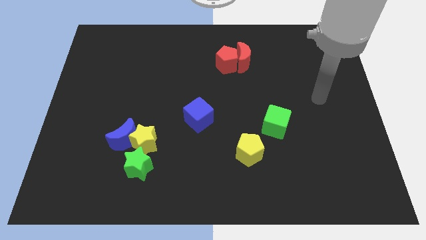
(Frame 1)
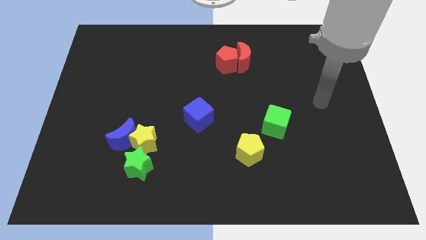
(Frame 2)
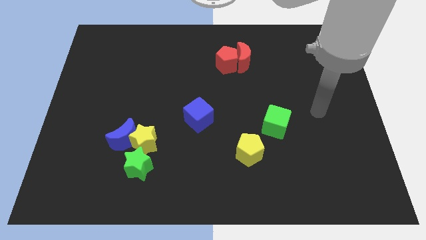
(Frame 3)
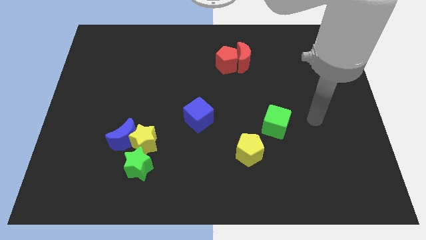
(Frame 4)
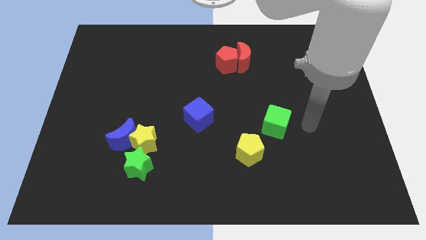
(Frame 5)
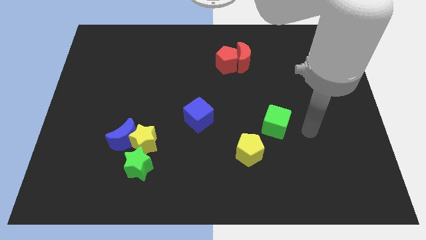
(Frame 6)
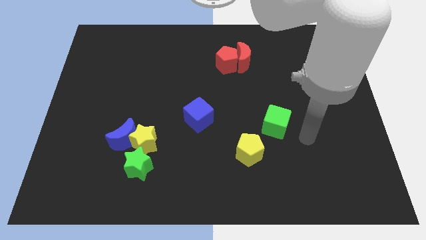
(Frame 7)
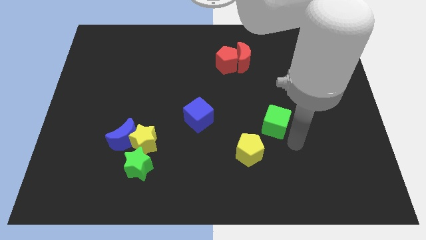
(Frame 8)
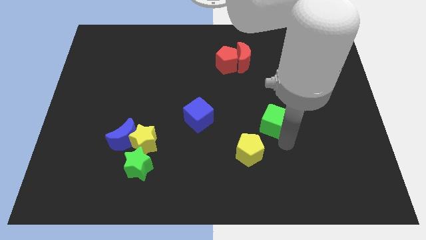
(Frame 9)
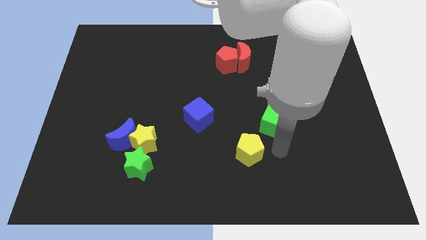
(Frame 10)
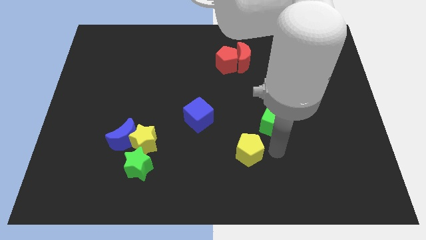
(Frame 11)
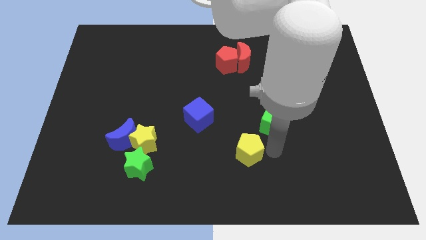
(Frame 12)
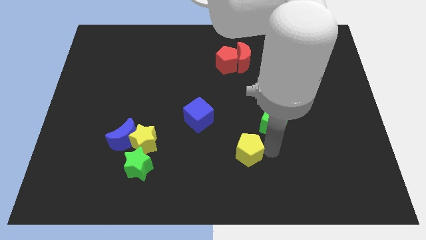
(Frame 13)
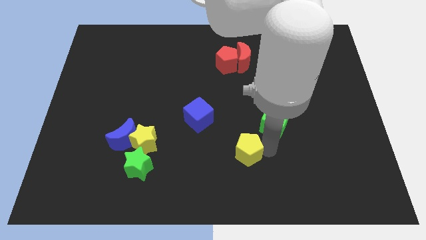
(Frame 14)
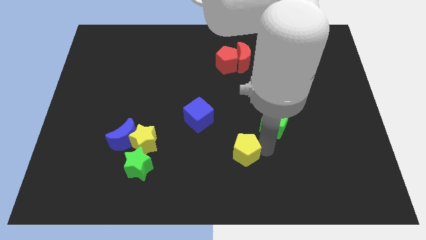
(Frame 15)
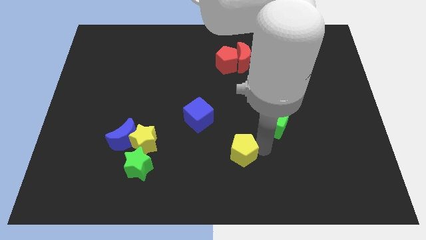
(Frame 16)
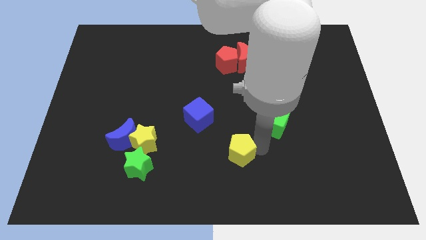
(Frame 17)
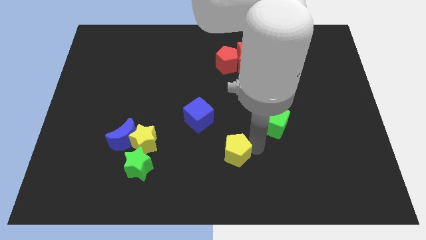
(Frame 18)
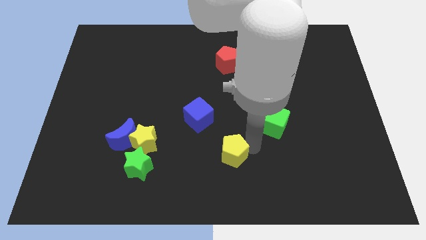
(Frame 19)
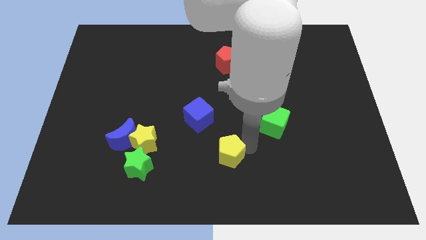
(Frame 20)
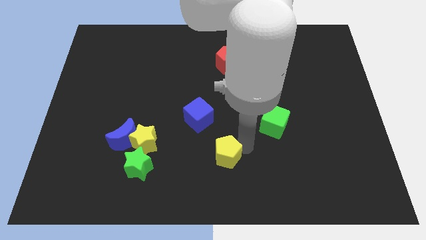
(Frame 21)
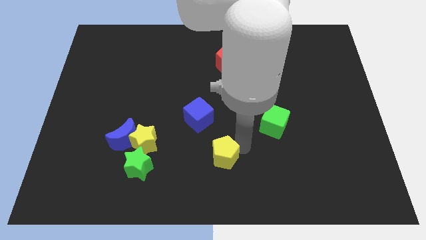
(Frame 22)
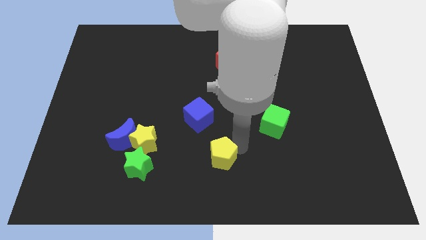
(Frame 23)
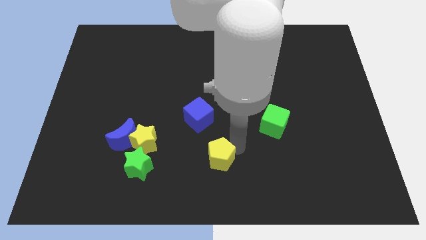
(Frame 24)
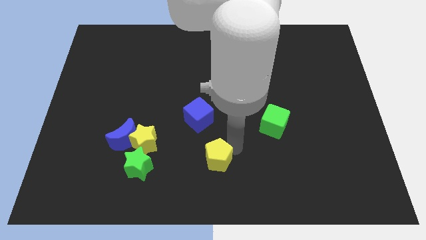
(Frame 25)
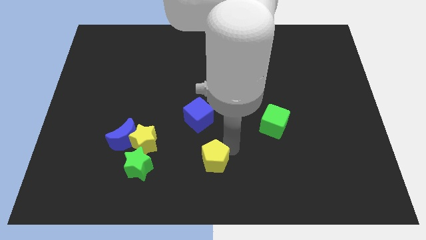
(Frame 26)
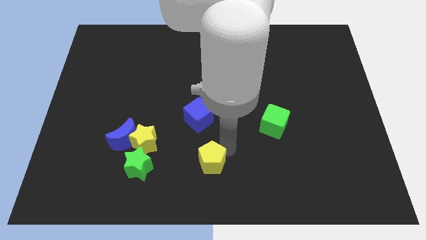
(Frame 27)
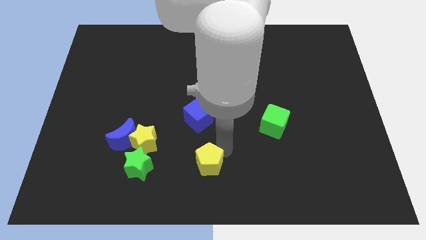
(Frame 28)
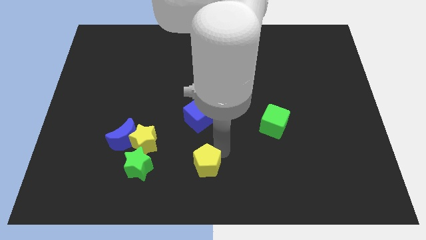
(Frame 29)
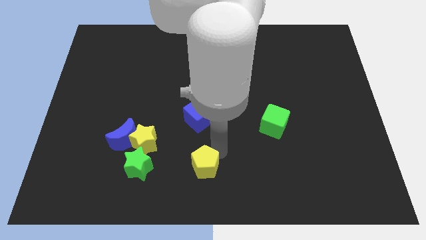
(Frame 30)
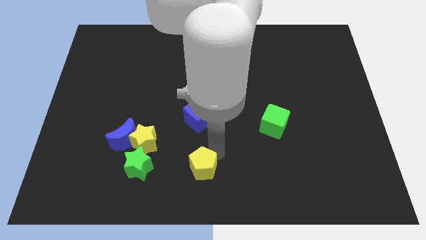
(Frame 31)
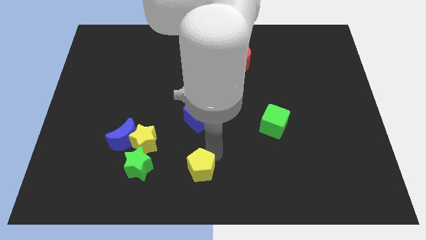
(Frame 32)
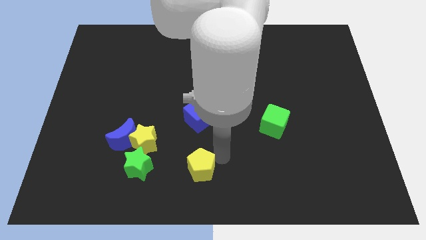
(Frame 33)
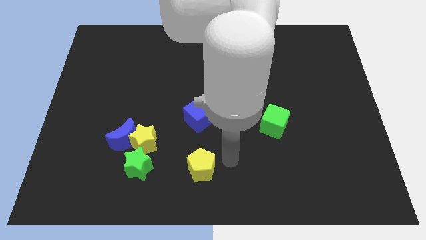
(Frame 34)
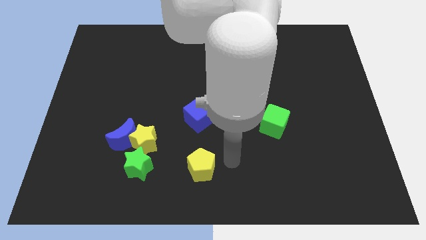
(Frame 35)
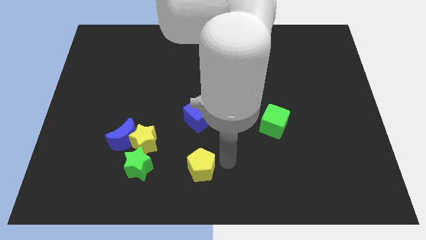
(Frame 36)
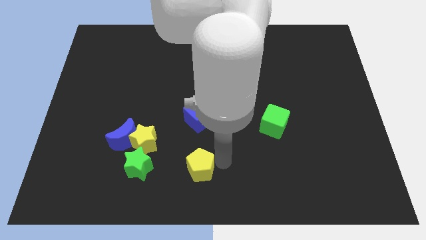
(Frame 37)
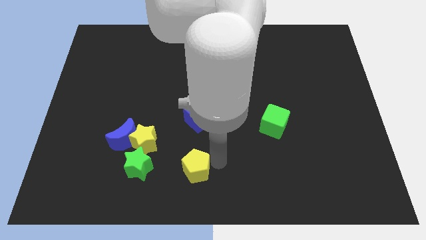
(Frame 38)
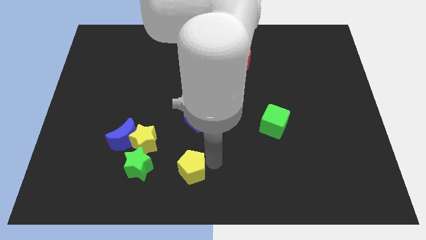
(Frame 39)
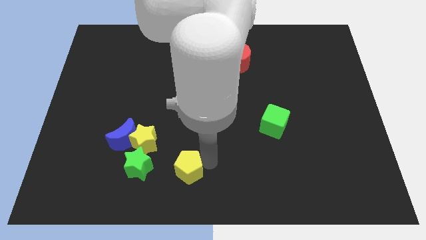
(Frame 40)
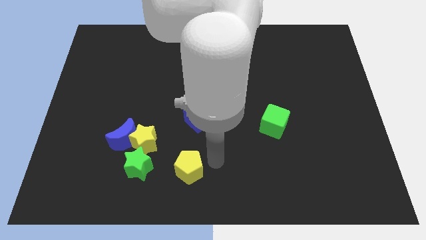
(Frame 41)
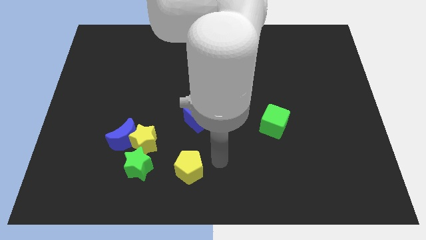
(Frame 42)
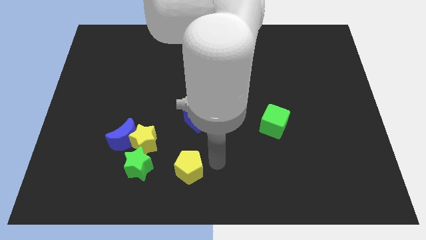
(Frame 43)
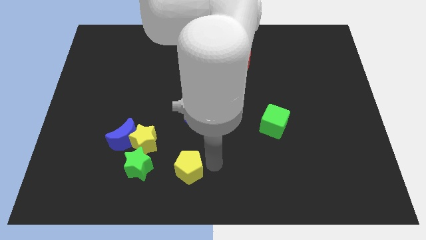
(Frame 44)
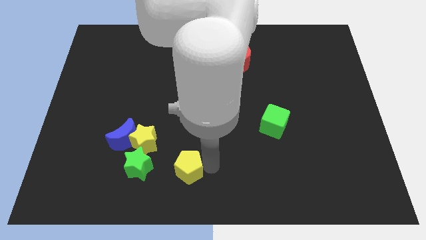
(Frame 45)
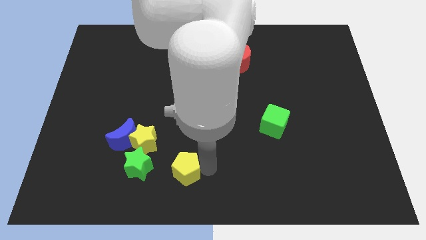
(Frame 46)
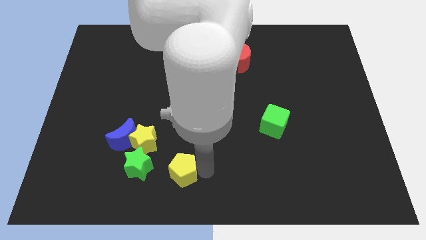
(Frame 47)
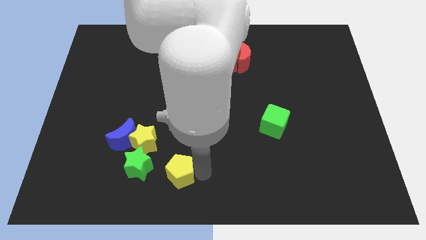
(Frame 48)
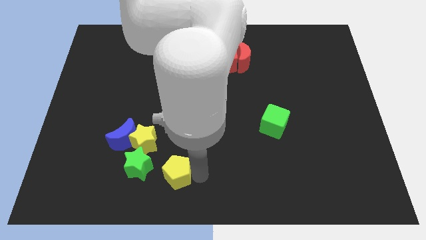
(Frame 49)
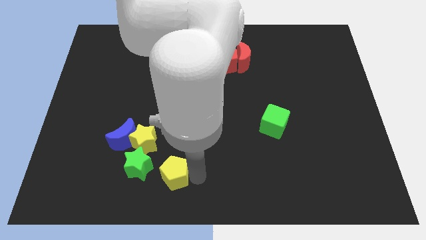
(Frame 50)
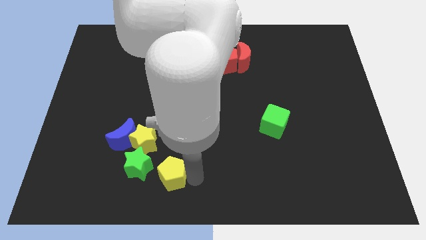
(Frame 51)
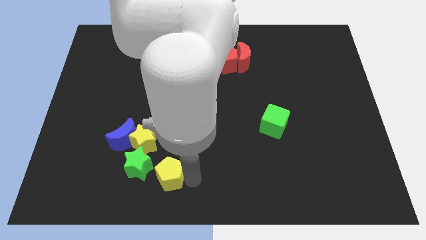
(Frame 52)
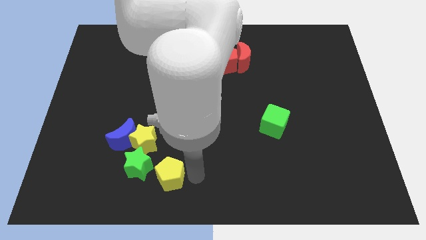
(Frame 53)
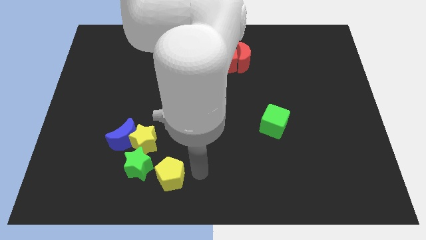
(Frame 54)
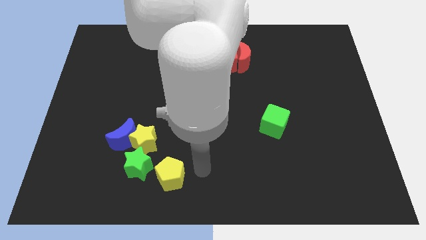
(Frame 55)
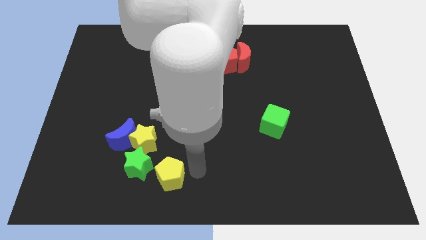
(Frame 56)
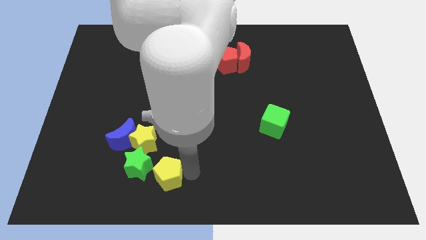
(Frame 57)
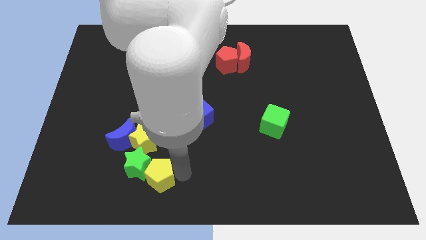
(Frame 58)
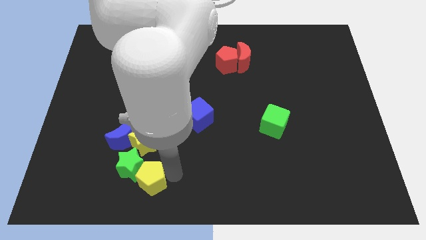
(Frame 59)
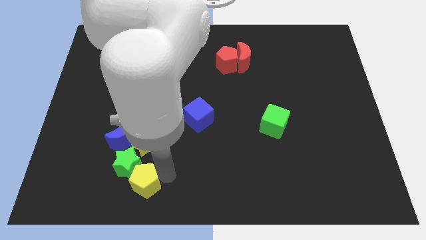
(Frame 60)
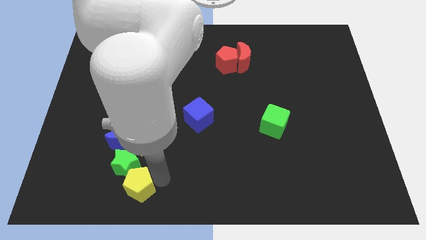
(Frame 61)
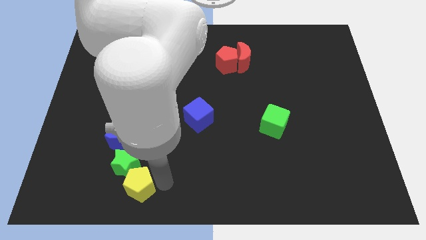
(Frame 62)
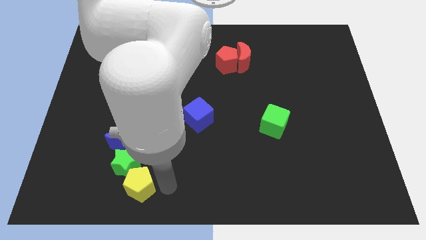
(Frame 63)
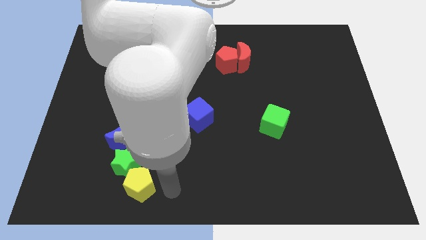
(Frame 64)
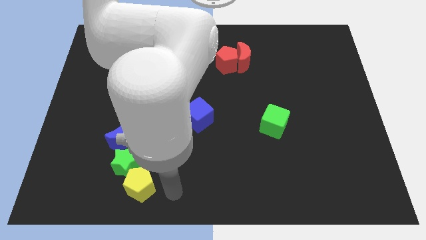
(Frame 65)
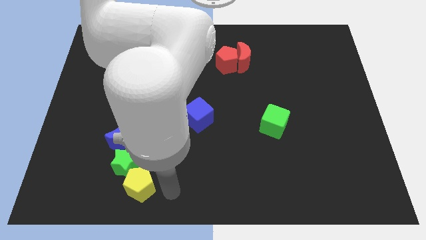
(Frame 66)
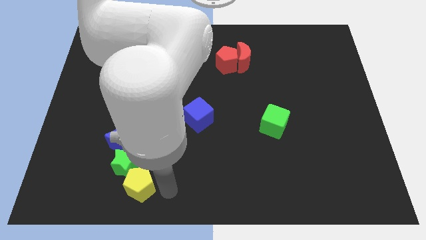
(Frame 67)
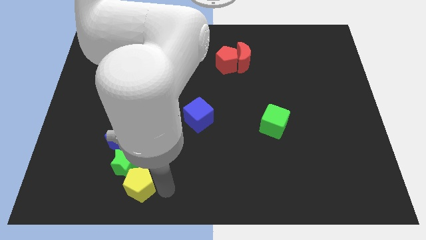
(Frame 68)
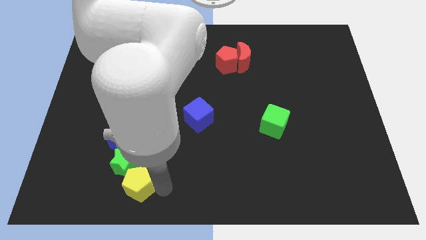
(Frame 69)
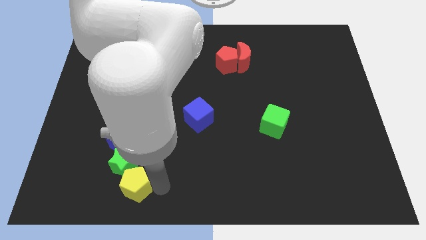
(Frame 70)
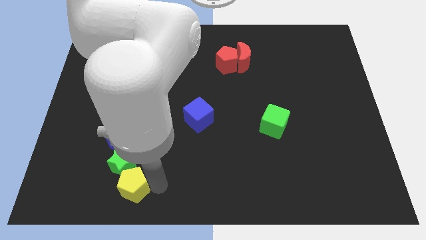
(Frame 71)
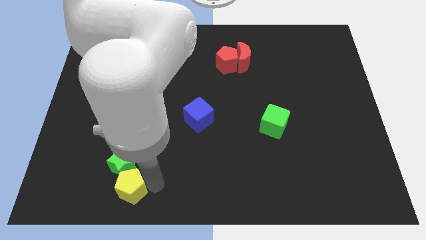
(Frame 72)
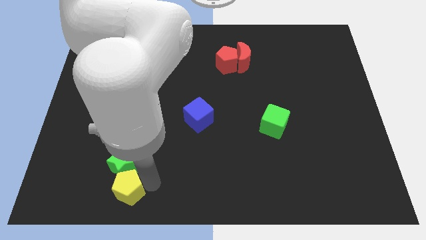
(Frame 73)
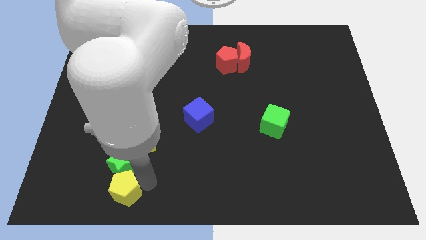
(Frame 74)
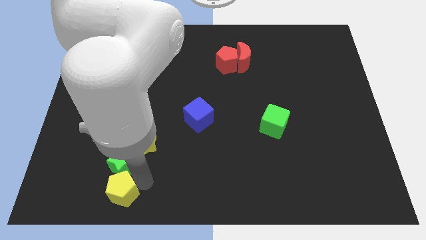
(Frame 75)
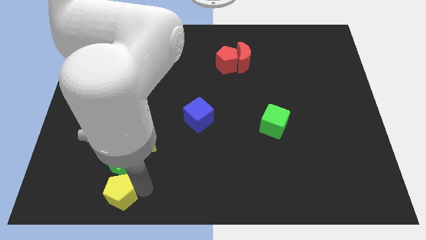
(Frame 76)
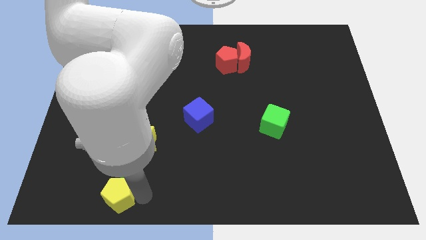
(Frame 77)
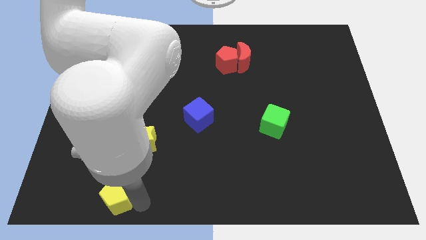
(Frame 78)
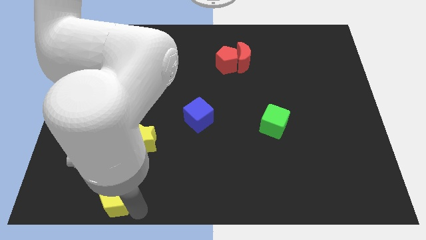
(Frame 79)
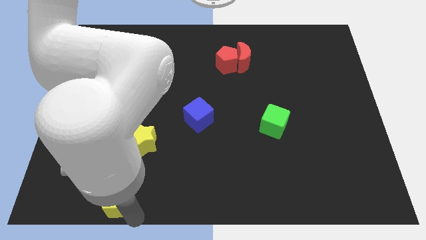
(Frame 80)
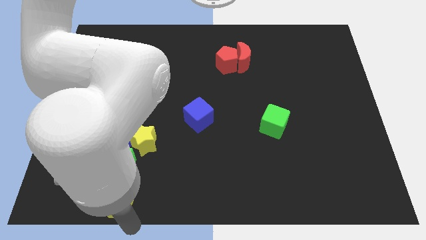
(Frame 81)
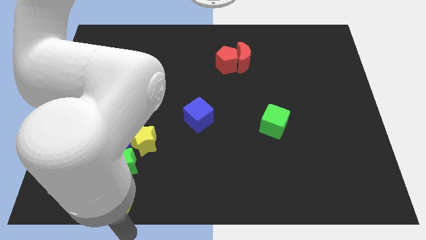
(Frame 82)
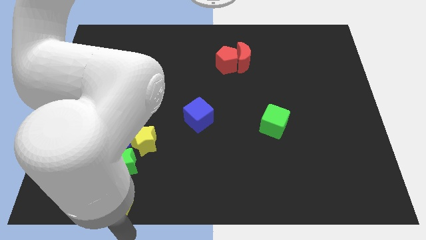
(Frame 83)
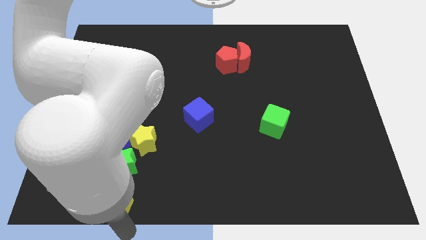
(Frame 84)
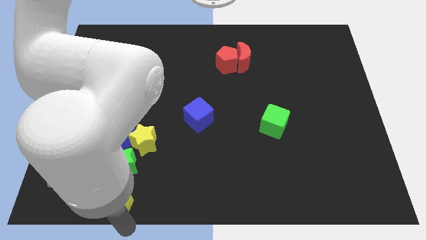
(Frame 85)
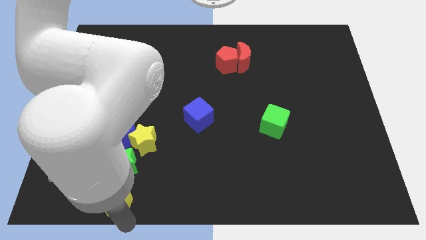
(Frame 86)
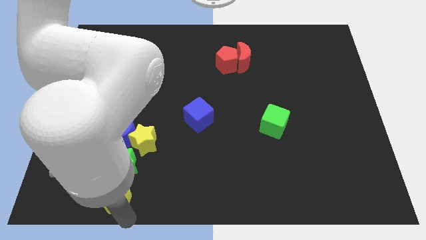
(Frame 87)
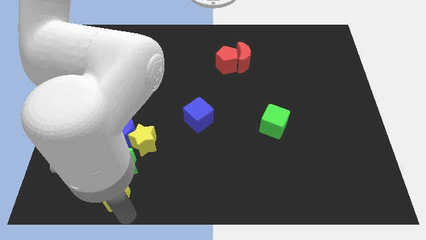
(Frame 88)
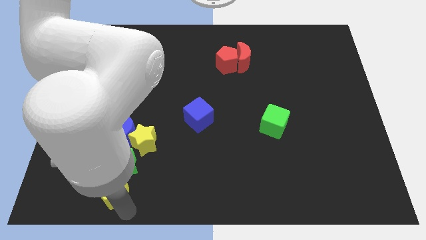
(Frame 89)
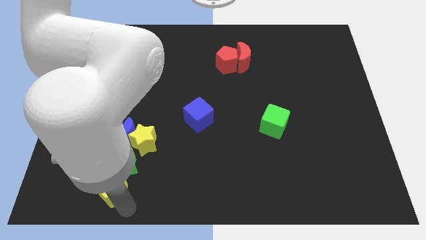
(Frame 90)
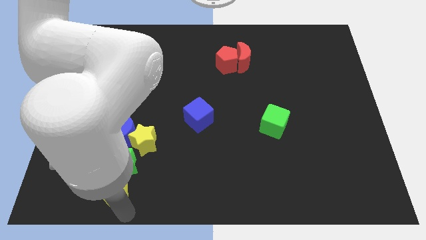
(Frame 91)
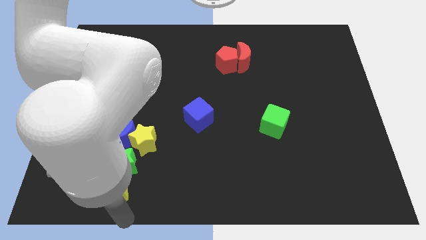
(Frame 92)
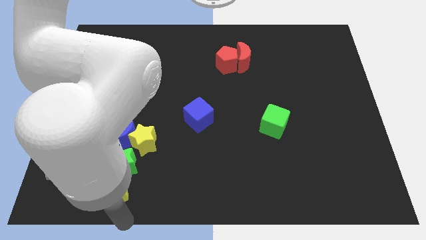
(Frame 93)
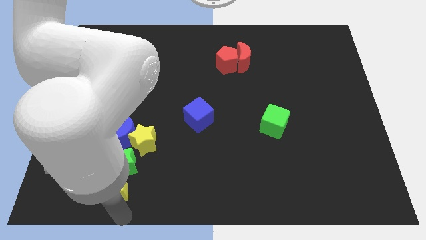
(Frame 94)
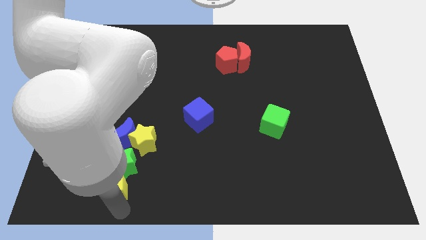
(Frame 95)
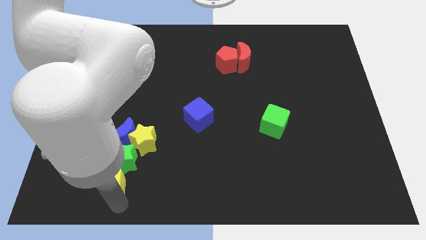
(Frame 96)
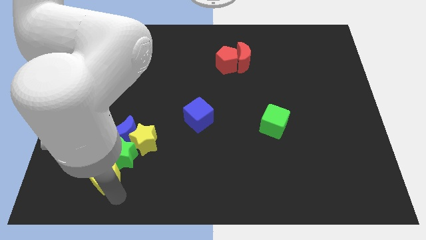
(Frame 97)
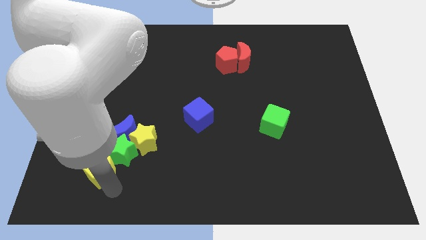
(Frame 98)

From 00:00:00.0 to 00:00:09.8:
move the yellow pentagon diagonally down and to the left of the blue moon
